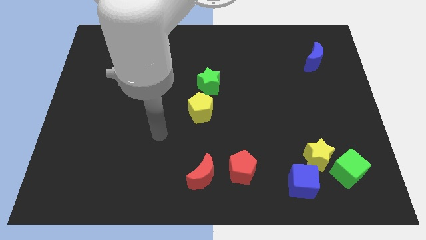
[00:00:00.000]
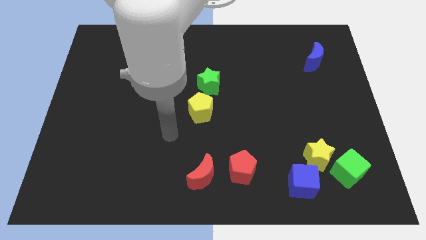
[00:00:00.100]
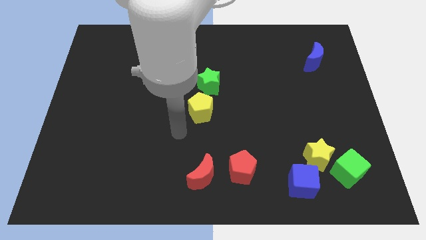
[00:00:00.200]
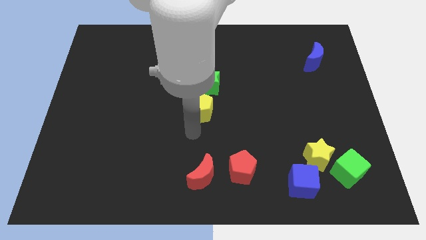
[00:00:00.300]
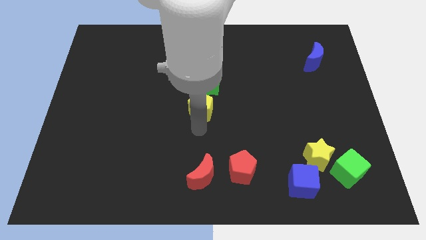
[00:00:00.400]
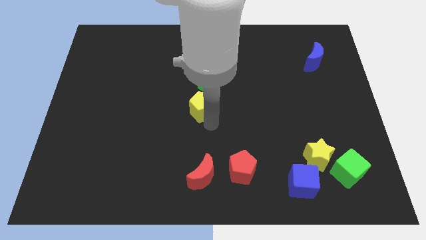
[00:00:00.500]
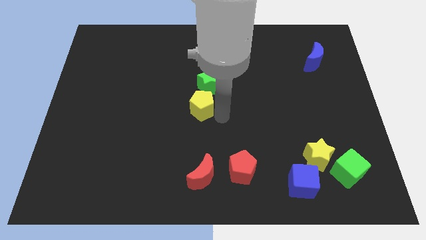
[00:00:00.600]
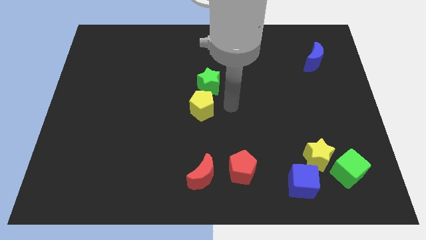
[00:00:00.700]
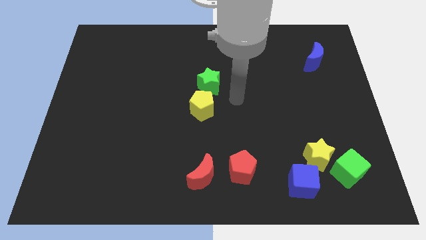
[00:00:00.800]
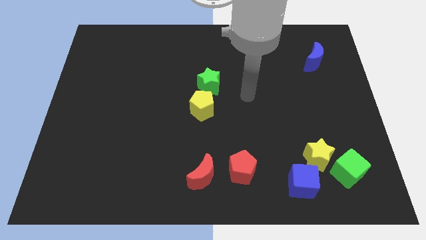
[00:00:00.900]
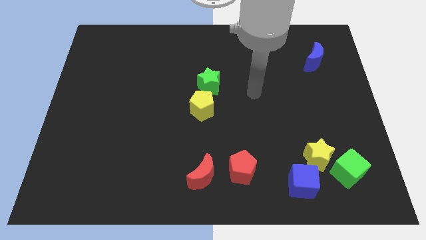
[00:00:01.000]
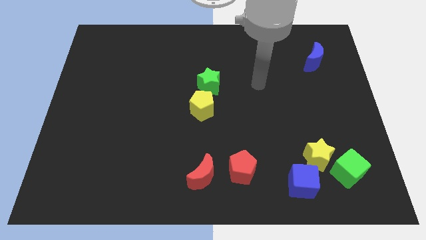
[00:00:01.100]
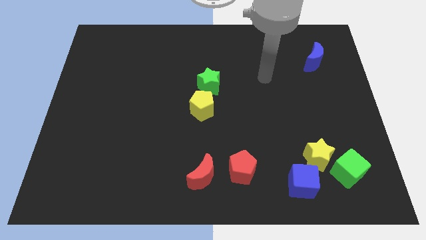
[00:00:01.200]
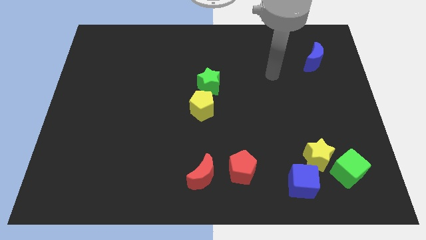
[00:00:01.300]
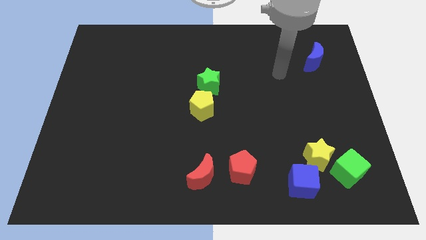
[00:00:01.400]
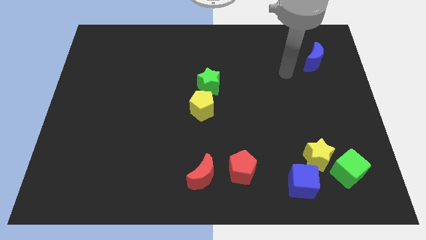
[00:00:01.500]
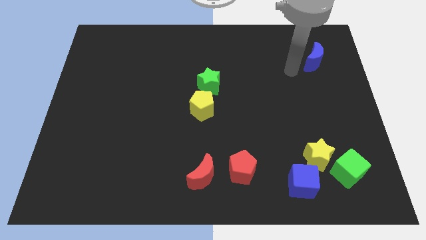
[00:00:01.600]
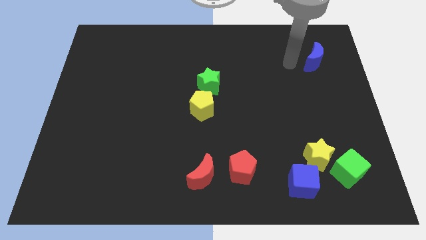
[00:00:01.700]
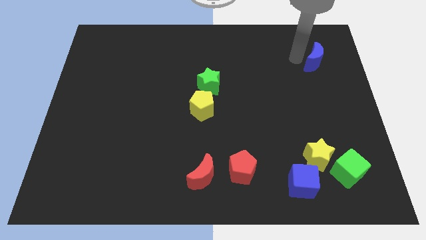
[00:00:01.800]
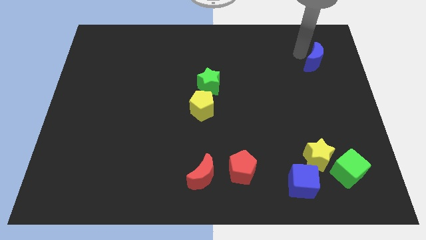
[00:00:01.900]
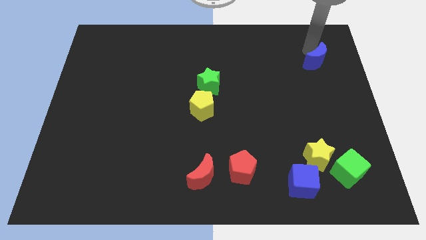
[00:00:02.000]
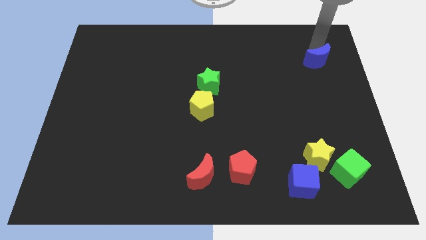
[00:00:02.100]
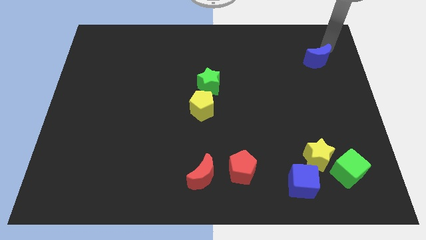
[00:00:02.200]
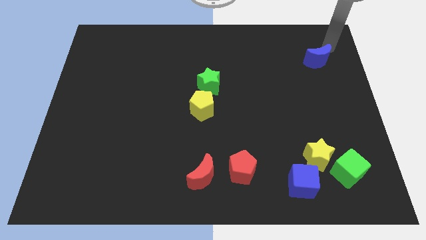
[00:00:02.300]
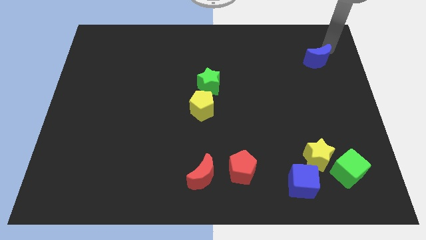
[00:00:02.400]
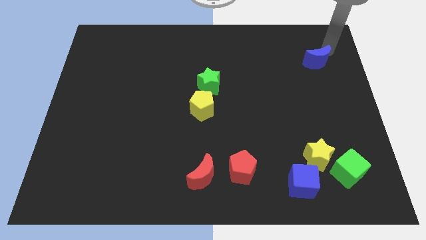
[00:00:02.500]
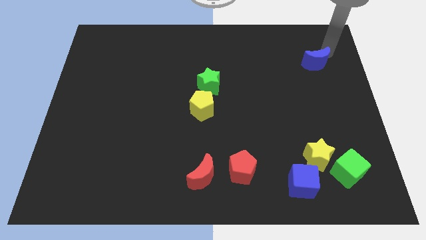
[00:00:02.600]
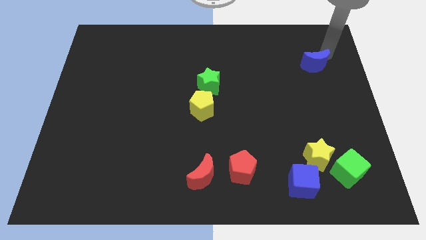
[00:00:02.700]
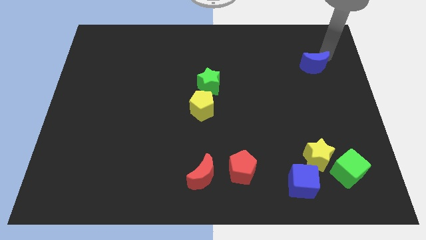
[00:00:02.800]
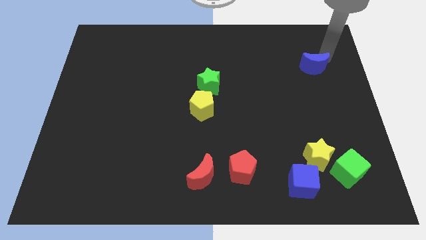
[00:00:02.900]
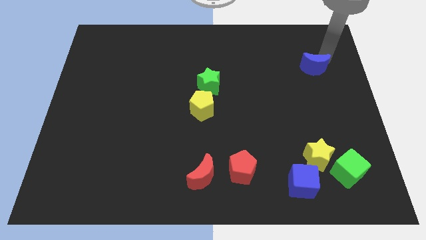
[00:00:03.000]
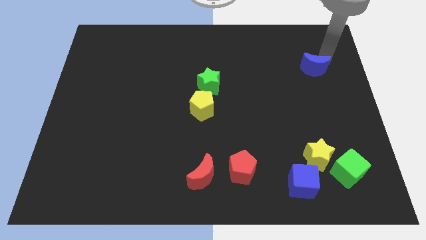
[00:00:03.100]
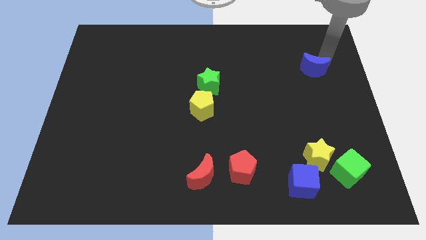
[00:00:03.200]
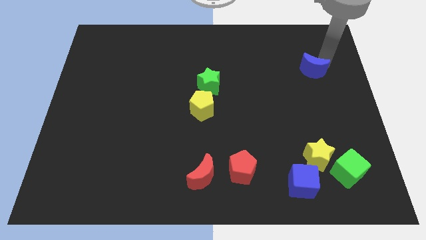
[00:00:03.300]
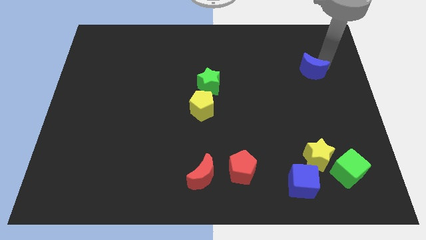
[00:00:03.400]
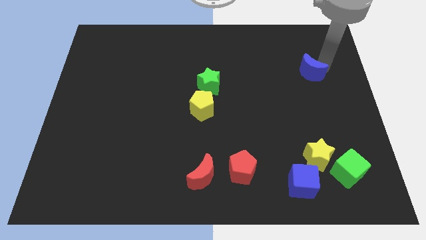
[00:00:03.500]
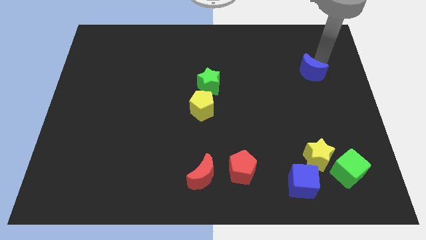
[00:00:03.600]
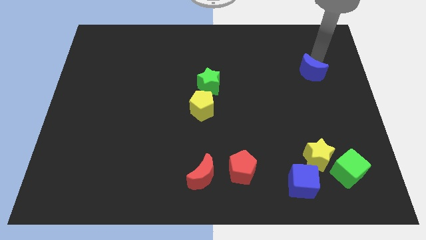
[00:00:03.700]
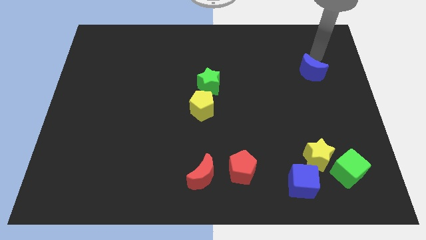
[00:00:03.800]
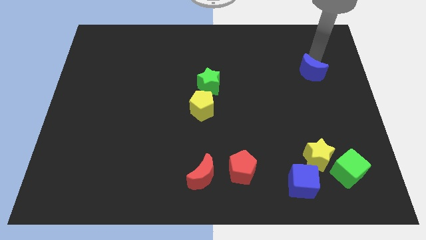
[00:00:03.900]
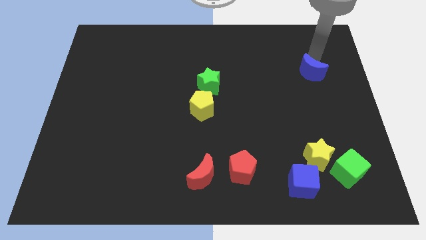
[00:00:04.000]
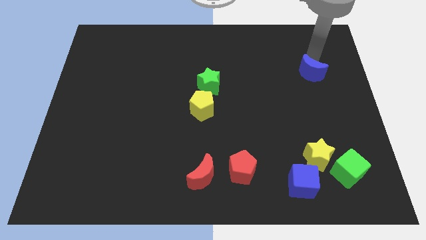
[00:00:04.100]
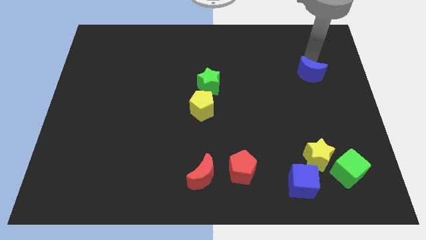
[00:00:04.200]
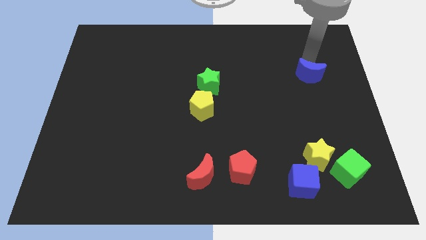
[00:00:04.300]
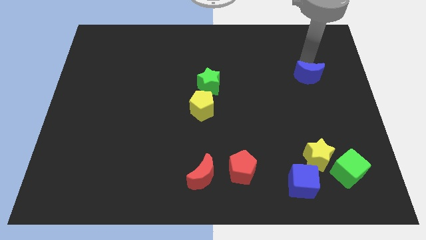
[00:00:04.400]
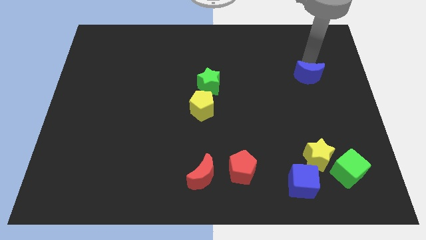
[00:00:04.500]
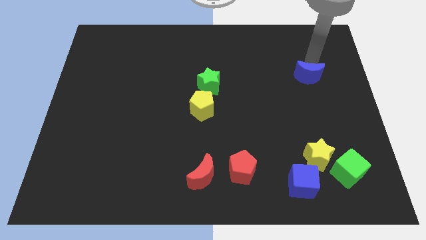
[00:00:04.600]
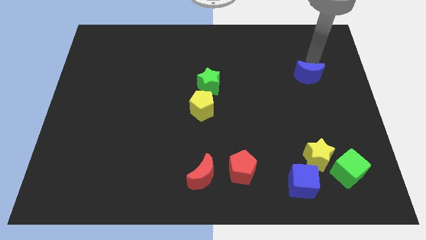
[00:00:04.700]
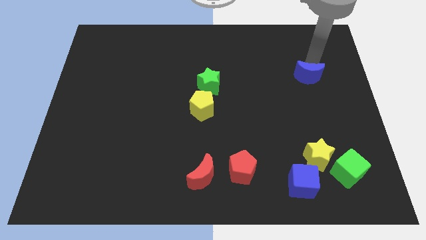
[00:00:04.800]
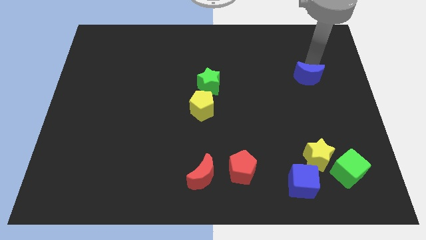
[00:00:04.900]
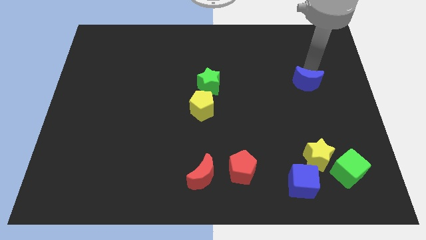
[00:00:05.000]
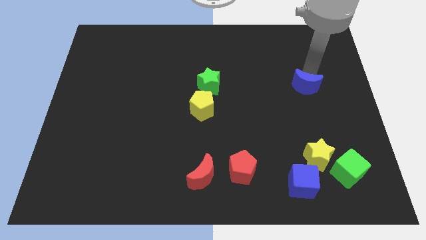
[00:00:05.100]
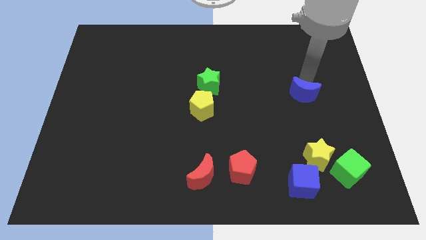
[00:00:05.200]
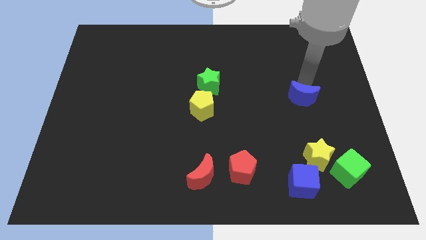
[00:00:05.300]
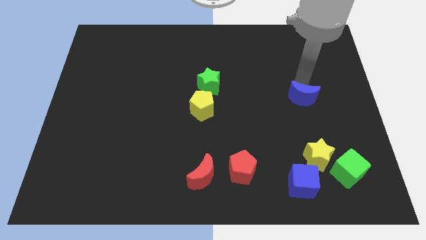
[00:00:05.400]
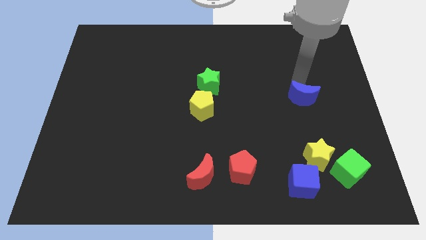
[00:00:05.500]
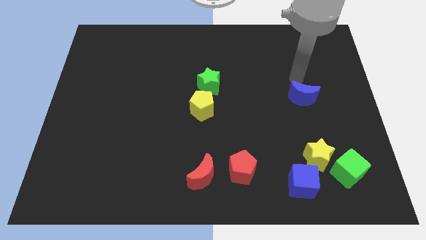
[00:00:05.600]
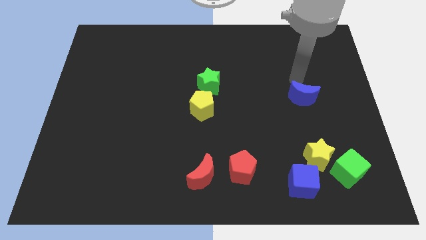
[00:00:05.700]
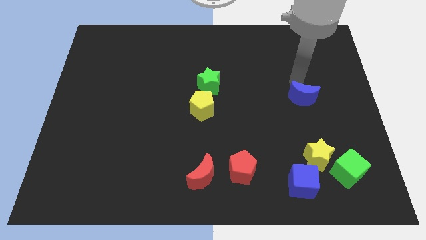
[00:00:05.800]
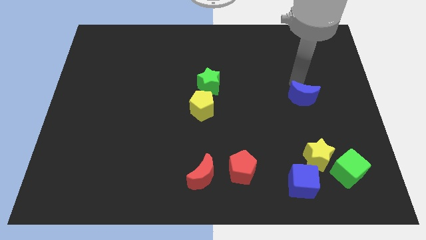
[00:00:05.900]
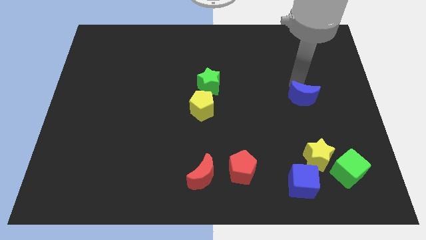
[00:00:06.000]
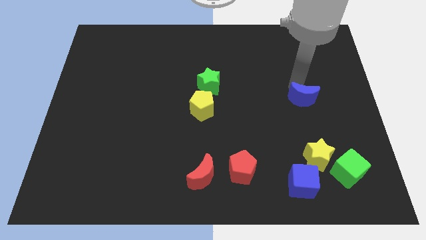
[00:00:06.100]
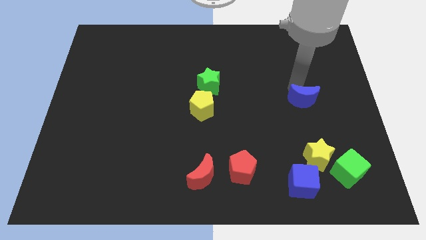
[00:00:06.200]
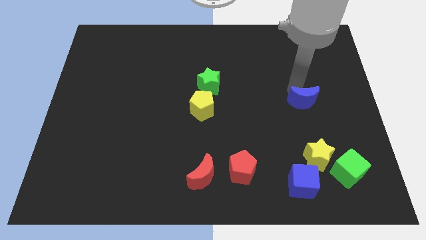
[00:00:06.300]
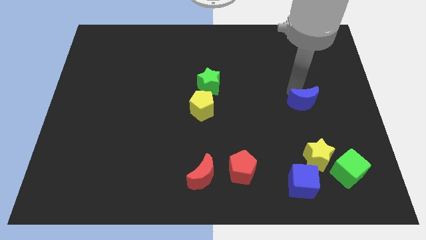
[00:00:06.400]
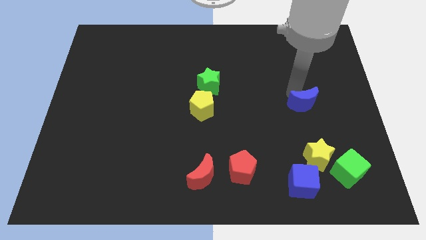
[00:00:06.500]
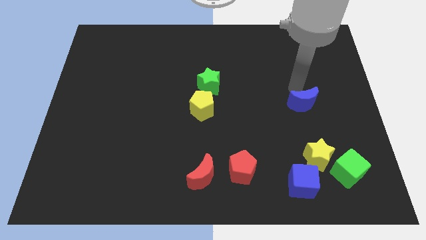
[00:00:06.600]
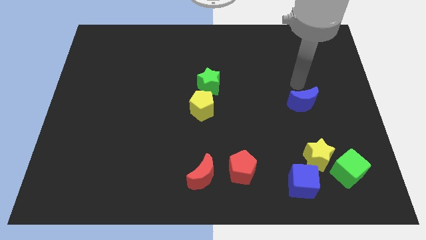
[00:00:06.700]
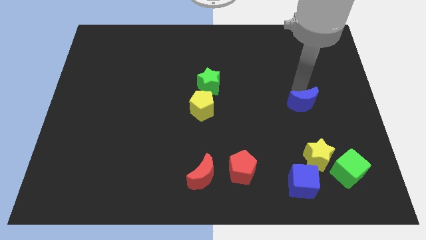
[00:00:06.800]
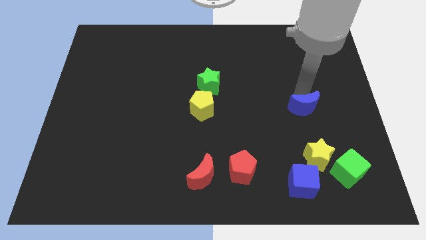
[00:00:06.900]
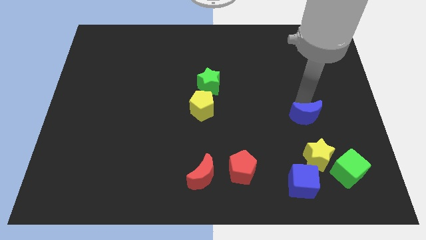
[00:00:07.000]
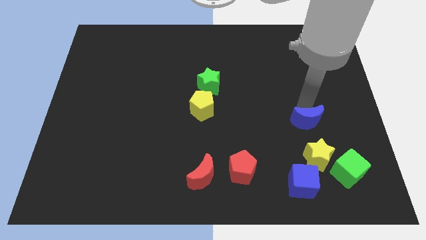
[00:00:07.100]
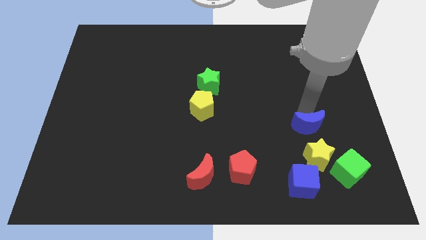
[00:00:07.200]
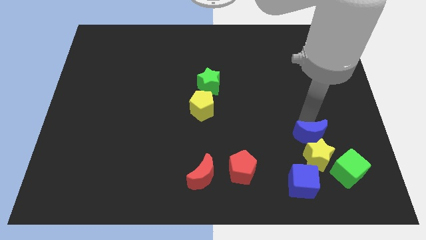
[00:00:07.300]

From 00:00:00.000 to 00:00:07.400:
push the blue moon next to the yellow star
